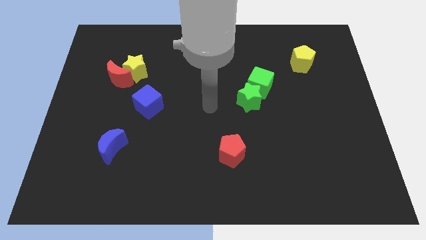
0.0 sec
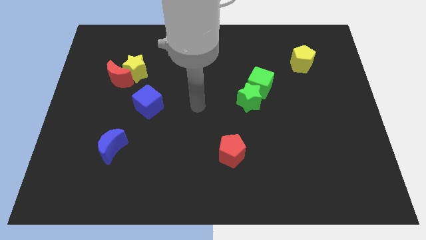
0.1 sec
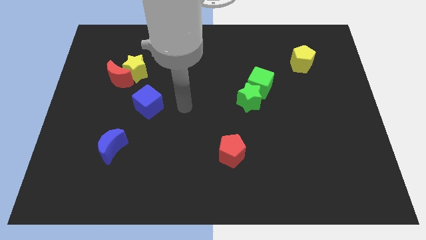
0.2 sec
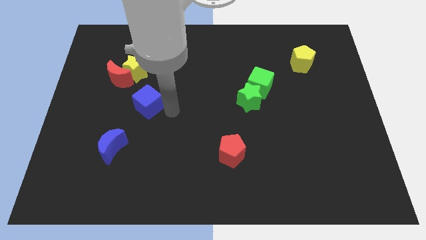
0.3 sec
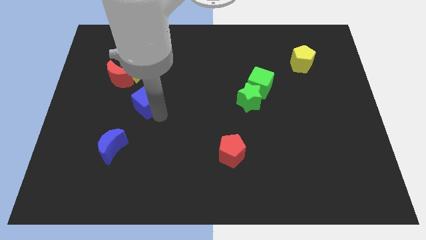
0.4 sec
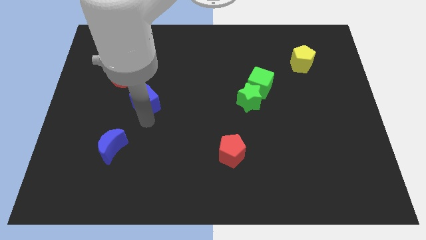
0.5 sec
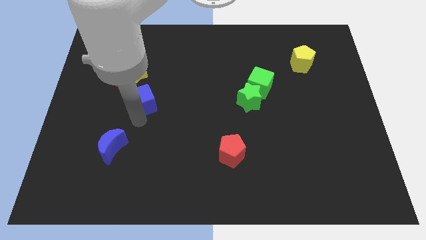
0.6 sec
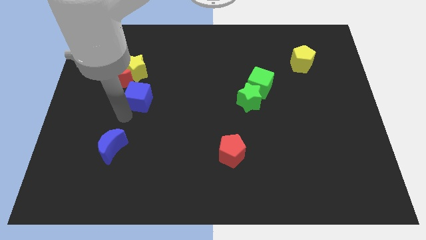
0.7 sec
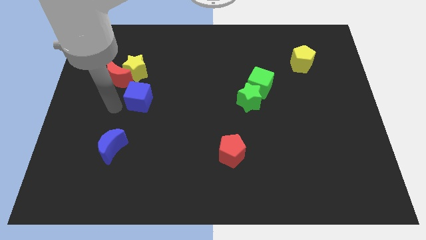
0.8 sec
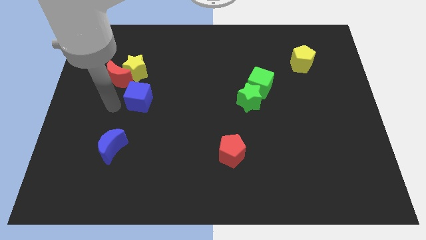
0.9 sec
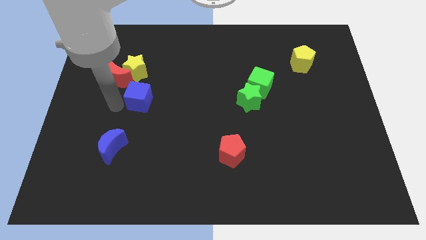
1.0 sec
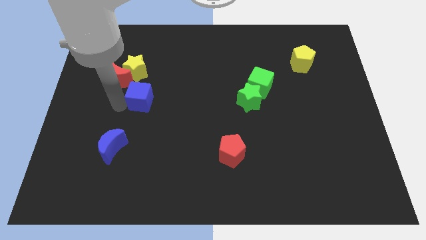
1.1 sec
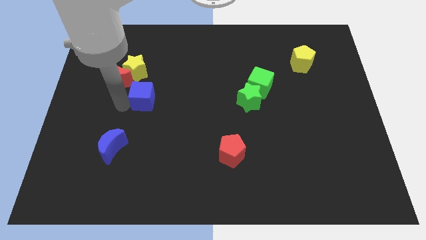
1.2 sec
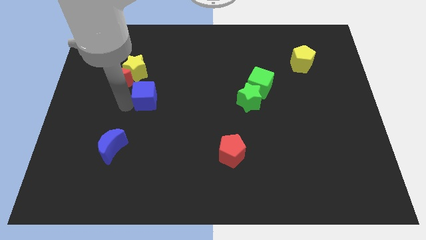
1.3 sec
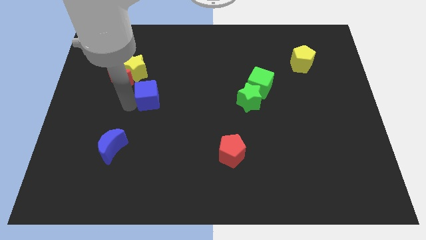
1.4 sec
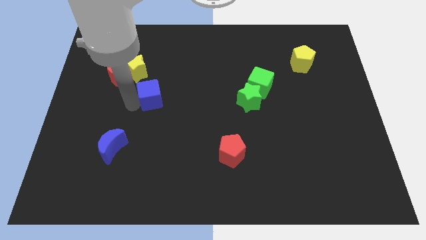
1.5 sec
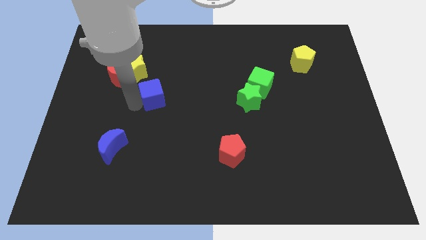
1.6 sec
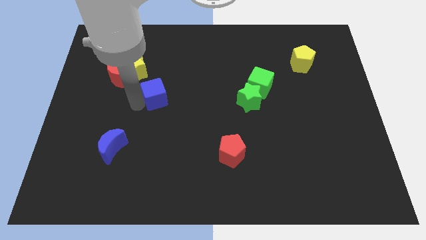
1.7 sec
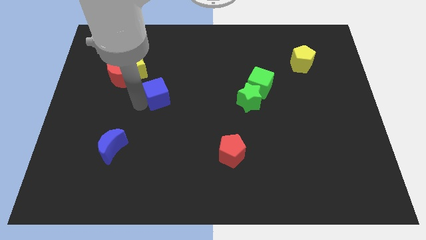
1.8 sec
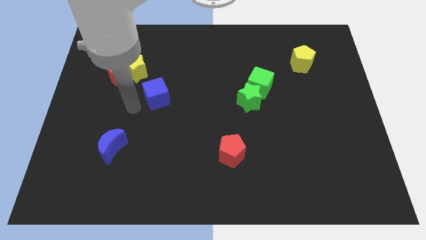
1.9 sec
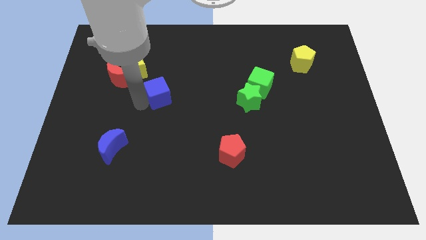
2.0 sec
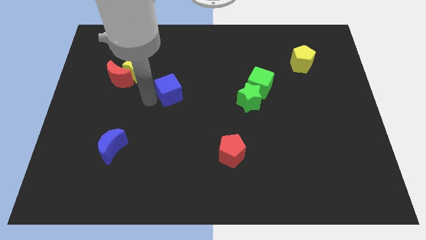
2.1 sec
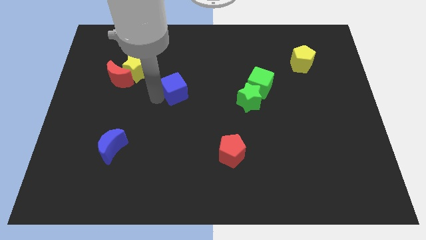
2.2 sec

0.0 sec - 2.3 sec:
slide the blue cube a little bit up and then to the right

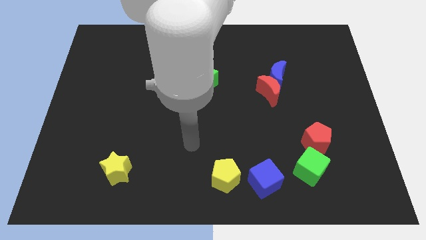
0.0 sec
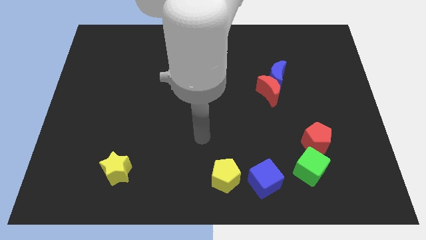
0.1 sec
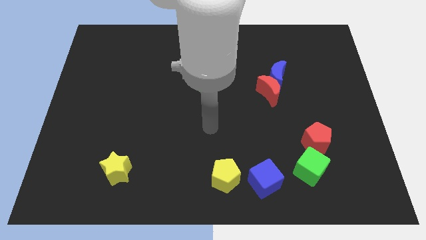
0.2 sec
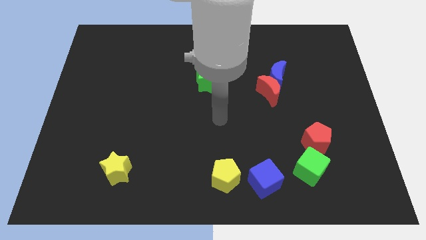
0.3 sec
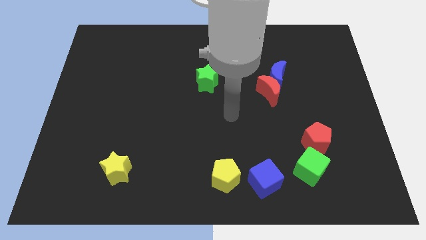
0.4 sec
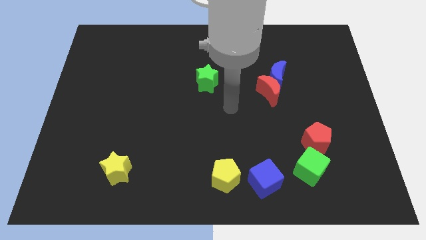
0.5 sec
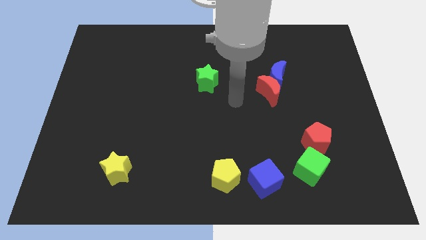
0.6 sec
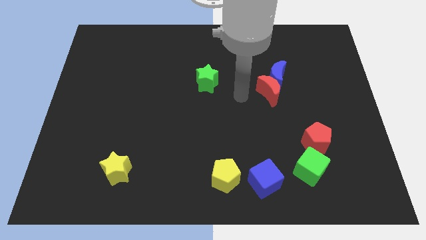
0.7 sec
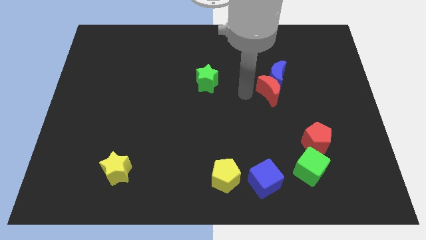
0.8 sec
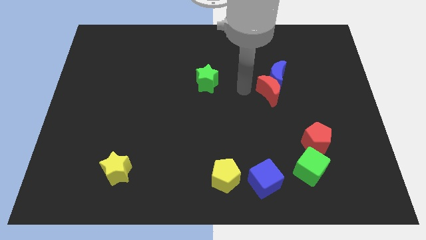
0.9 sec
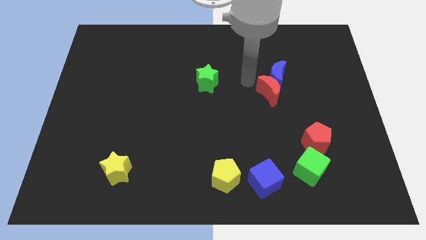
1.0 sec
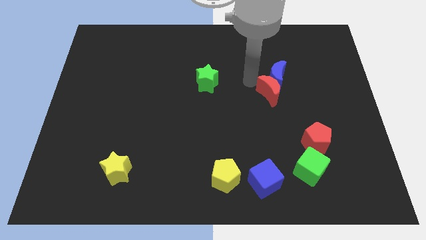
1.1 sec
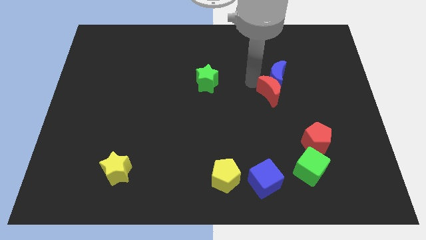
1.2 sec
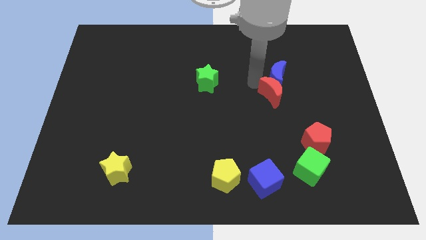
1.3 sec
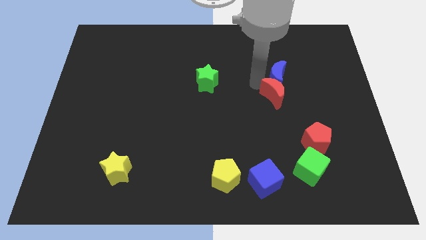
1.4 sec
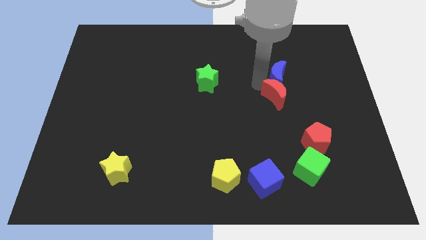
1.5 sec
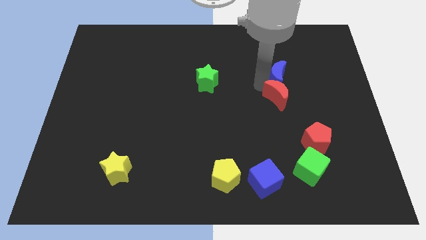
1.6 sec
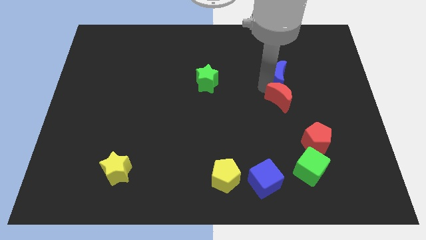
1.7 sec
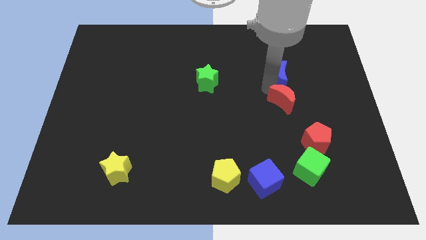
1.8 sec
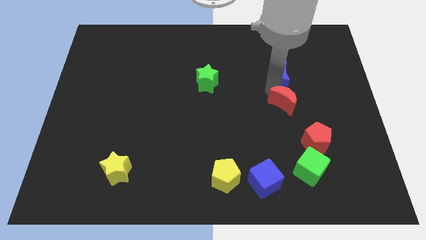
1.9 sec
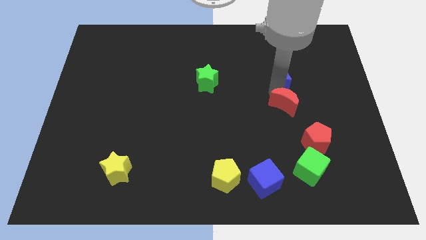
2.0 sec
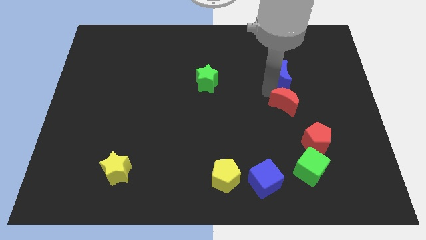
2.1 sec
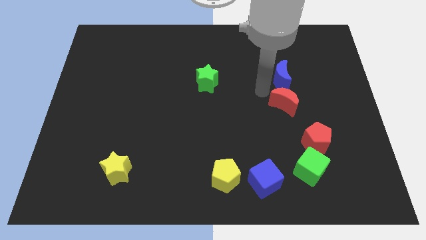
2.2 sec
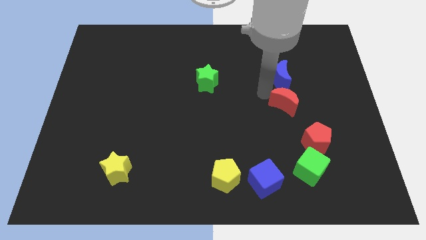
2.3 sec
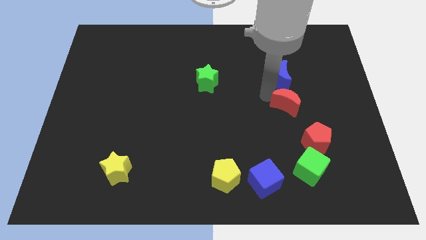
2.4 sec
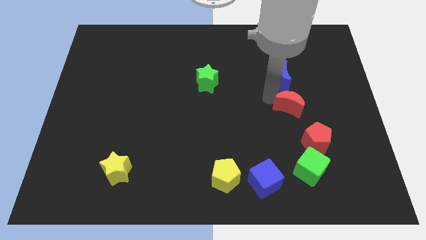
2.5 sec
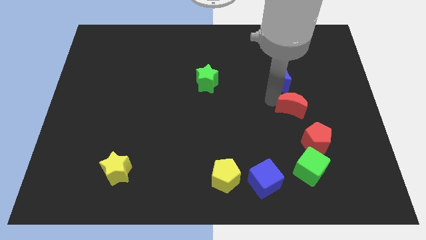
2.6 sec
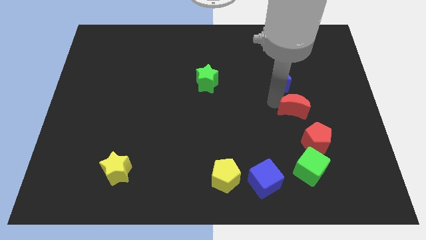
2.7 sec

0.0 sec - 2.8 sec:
slightly slide the red moon downwards and then to the right

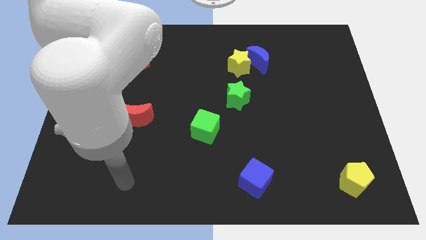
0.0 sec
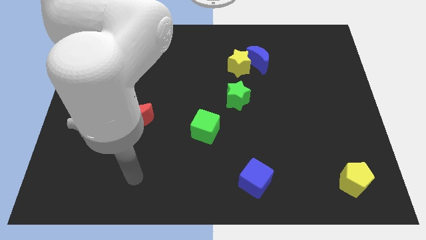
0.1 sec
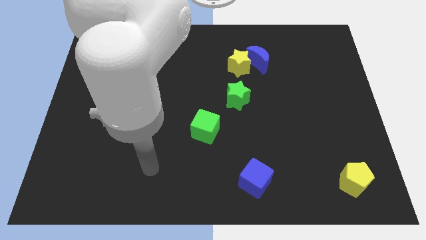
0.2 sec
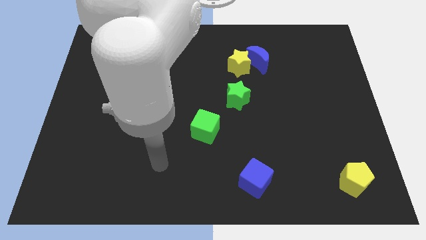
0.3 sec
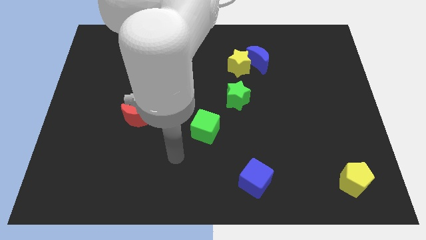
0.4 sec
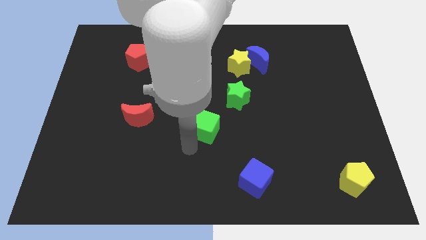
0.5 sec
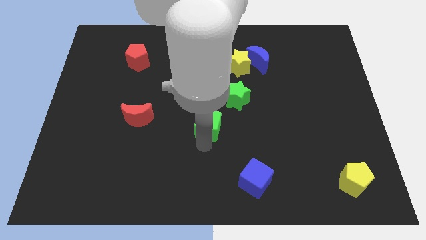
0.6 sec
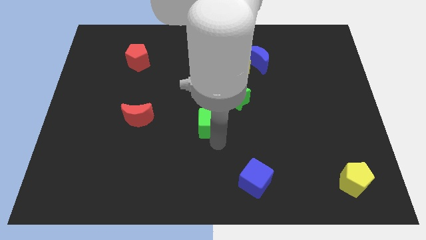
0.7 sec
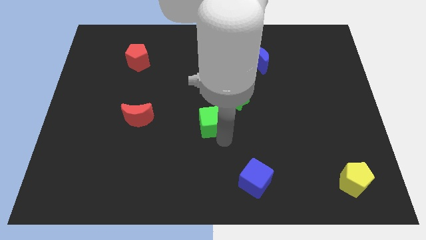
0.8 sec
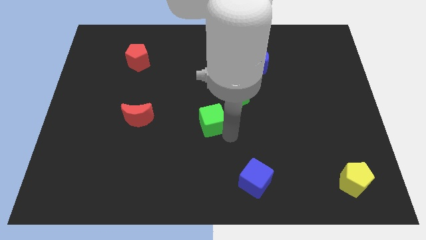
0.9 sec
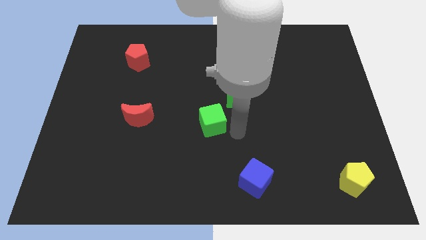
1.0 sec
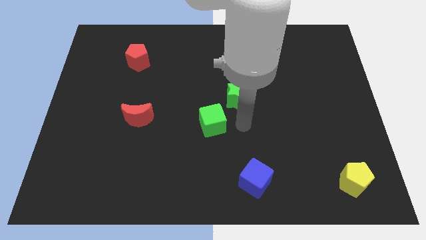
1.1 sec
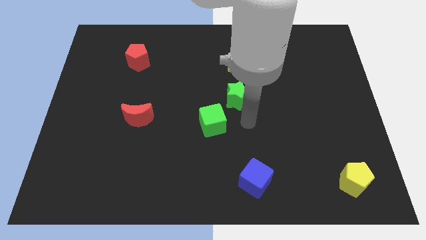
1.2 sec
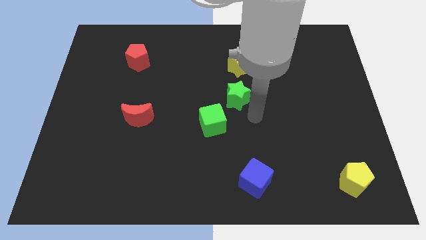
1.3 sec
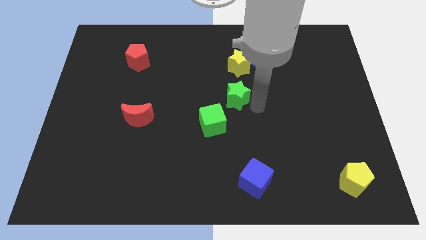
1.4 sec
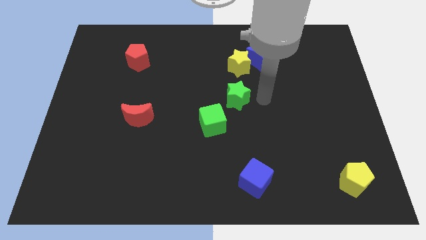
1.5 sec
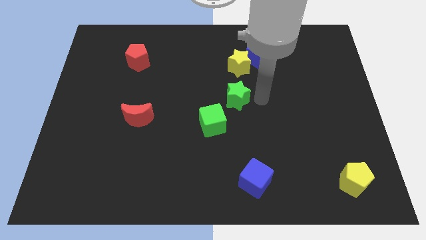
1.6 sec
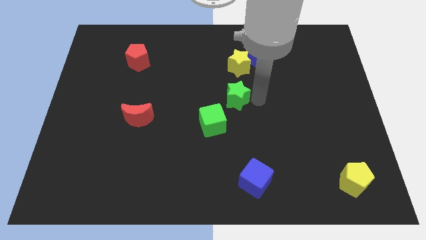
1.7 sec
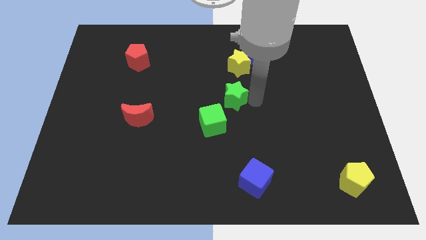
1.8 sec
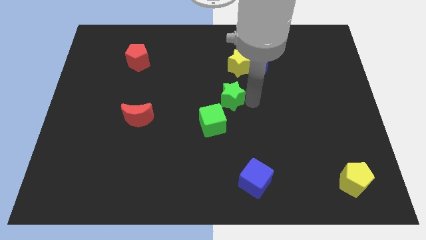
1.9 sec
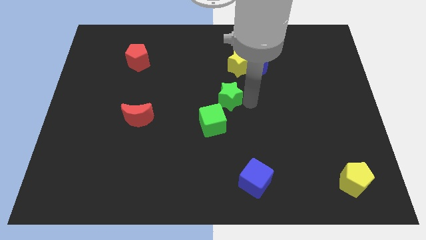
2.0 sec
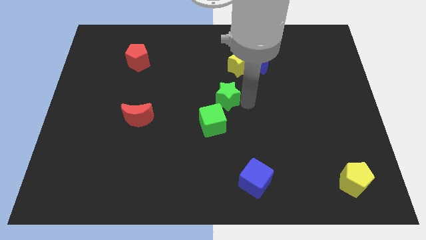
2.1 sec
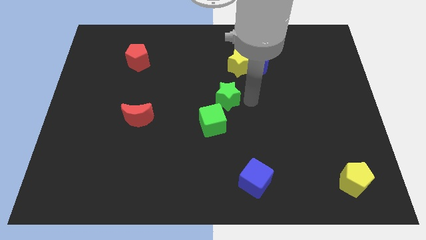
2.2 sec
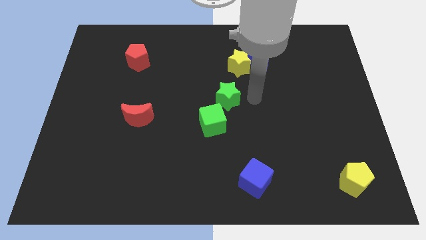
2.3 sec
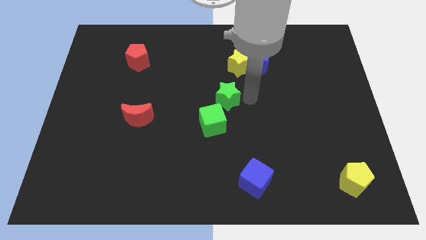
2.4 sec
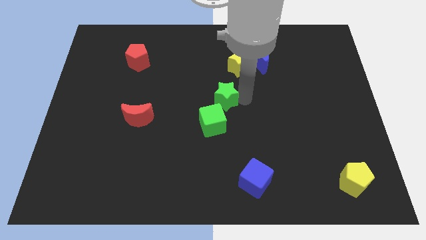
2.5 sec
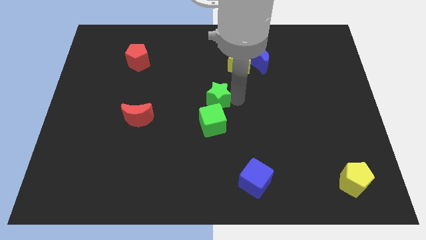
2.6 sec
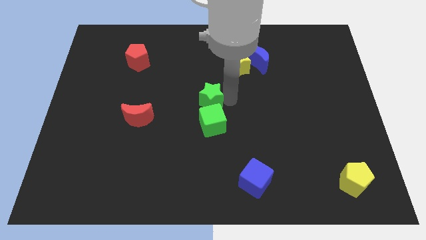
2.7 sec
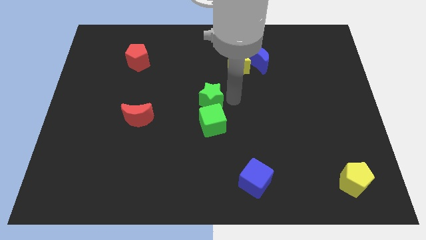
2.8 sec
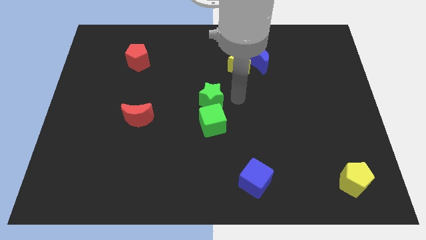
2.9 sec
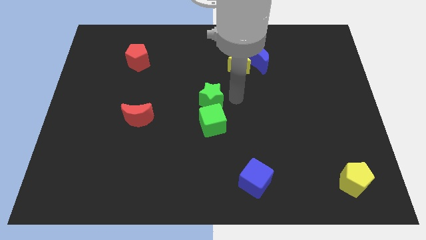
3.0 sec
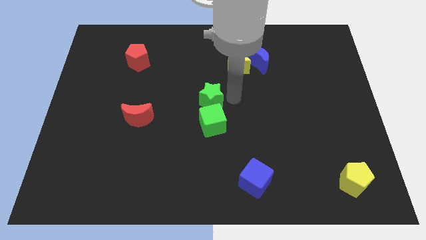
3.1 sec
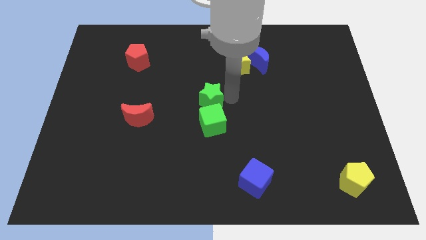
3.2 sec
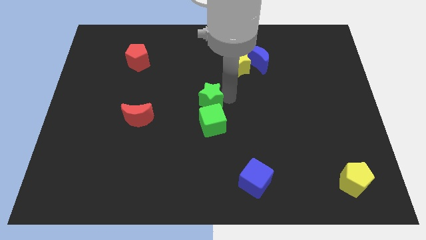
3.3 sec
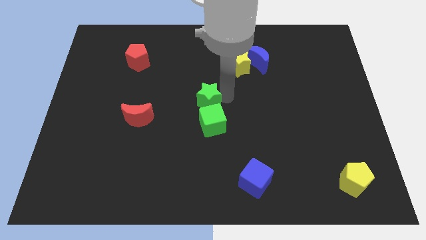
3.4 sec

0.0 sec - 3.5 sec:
move the green star to the left a little bit
